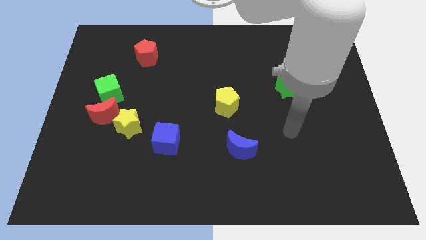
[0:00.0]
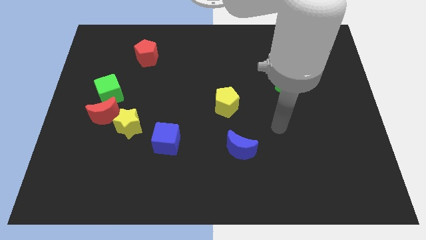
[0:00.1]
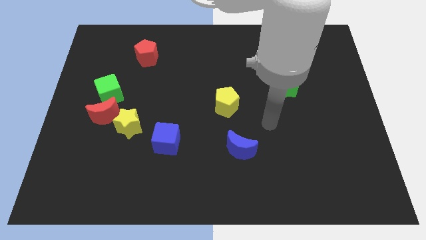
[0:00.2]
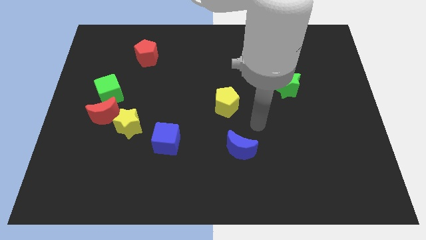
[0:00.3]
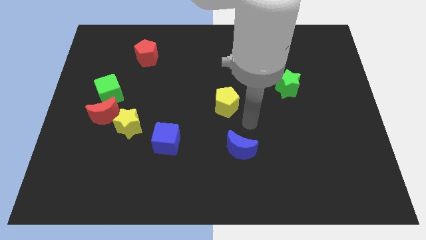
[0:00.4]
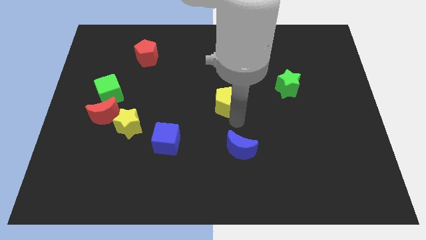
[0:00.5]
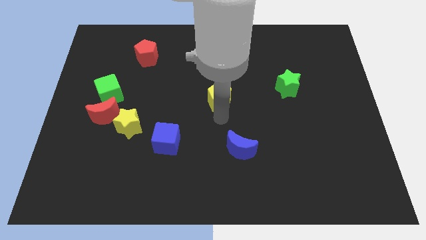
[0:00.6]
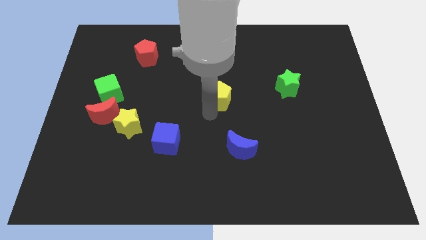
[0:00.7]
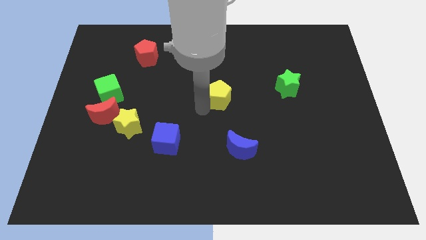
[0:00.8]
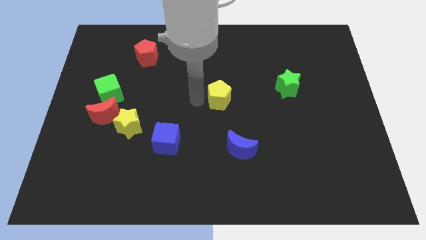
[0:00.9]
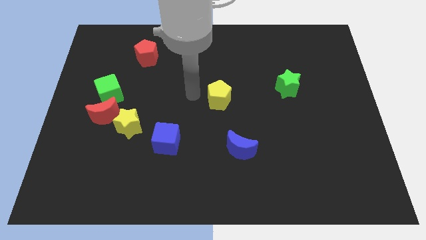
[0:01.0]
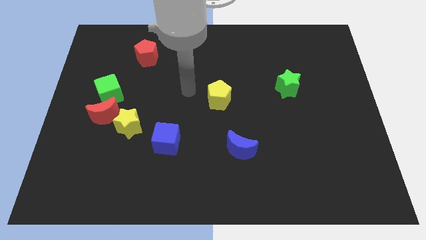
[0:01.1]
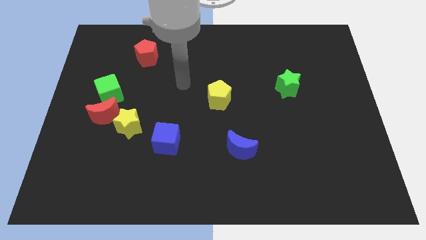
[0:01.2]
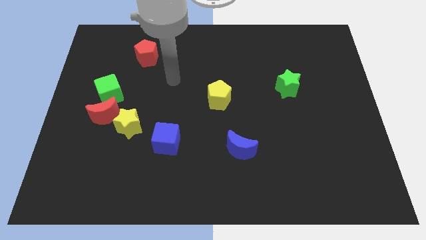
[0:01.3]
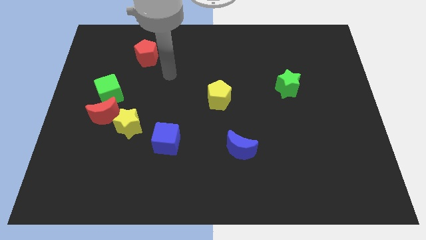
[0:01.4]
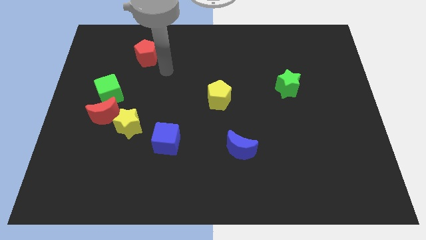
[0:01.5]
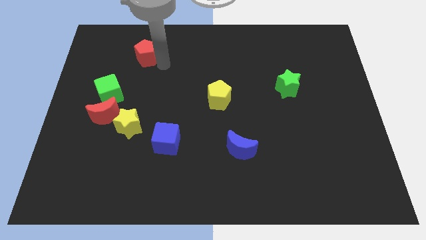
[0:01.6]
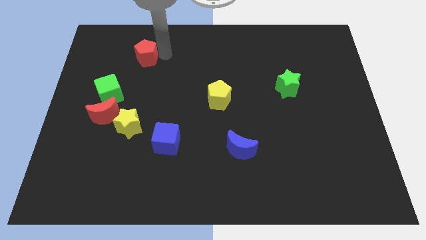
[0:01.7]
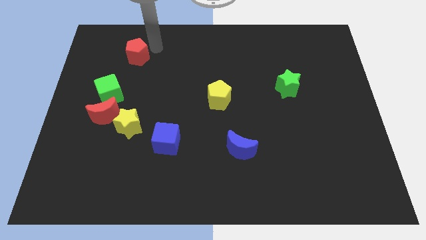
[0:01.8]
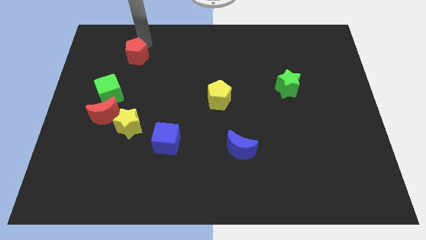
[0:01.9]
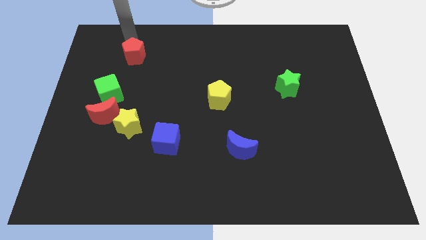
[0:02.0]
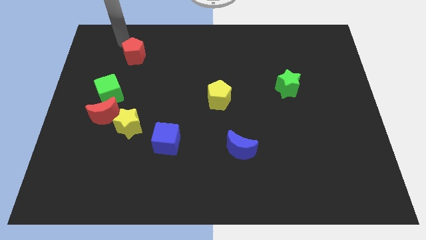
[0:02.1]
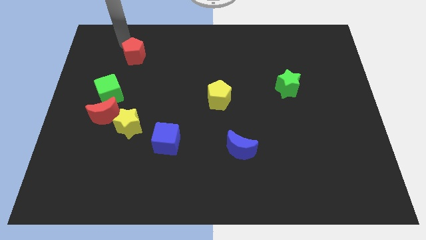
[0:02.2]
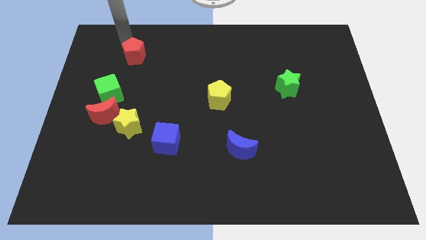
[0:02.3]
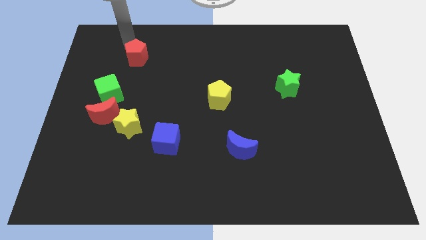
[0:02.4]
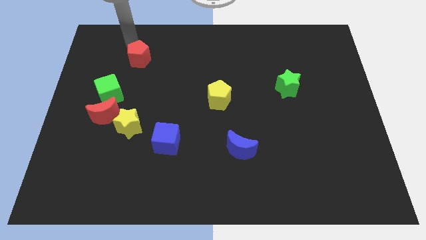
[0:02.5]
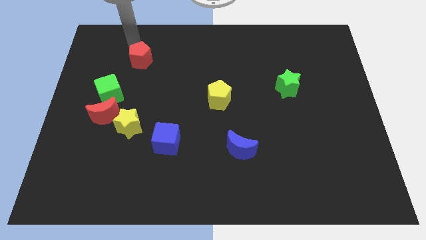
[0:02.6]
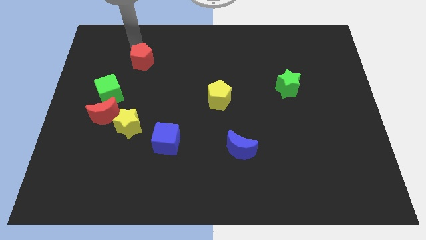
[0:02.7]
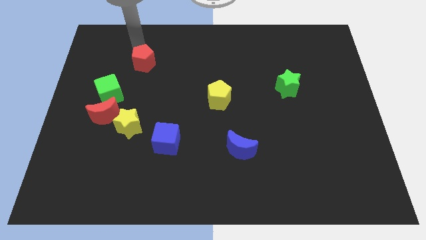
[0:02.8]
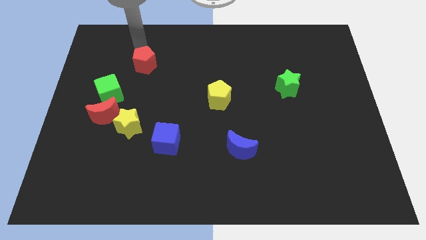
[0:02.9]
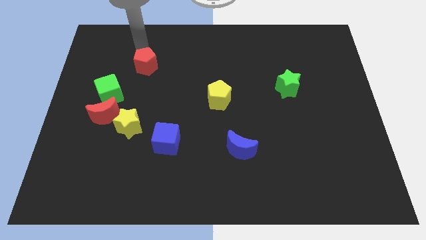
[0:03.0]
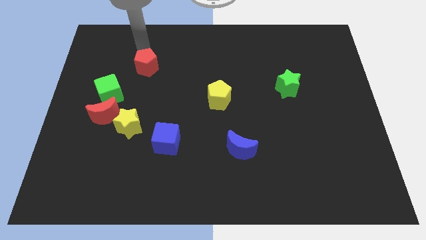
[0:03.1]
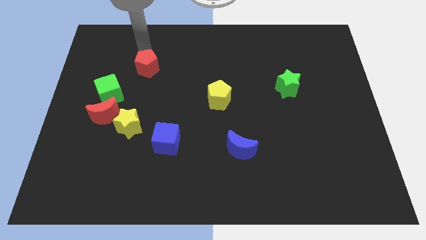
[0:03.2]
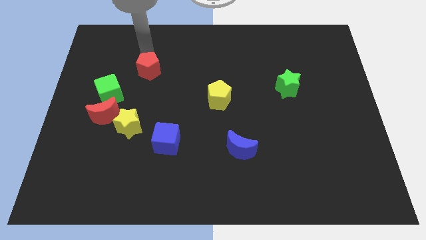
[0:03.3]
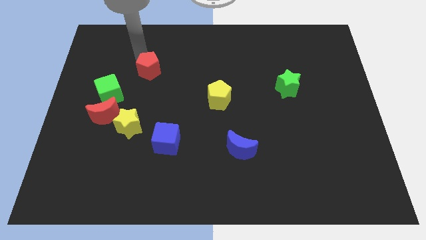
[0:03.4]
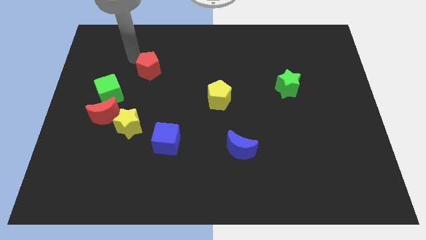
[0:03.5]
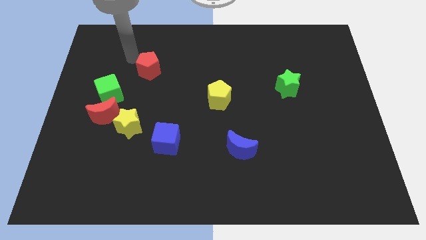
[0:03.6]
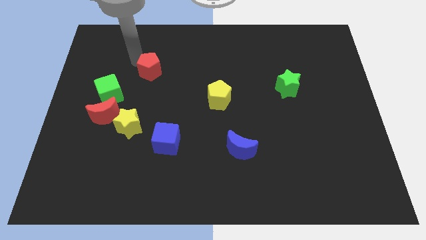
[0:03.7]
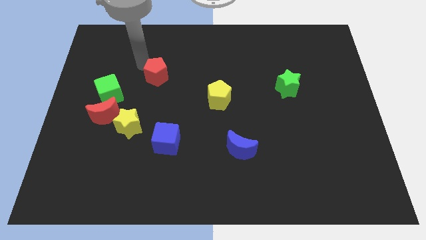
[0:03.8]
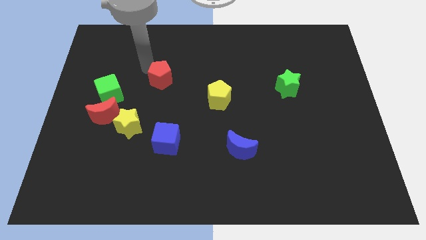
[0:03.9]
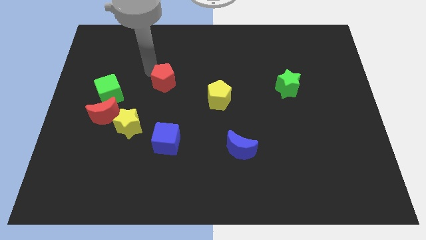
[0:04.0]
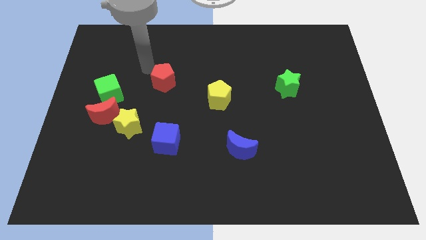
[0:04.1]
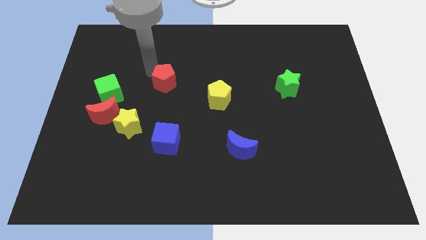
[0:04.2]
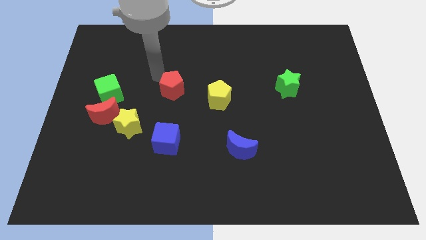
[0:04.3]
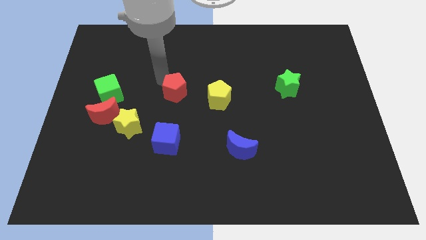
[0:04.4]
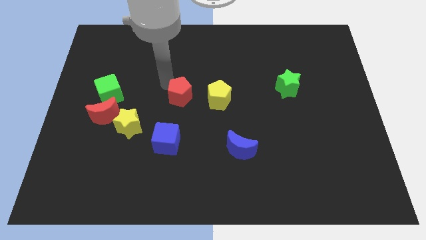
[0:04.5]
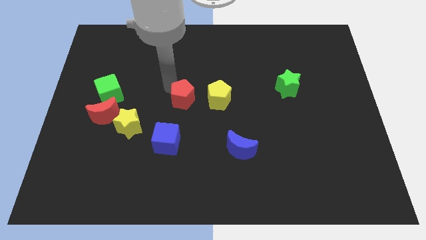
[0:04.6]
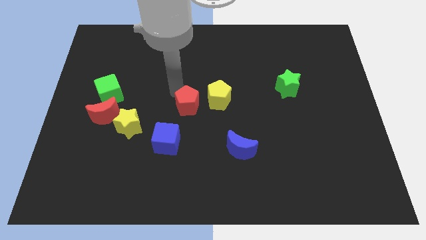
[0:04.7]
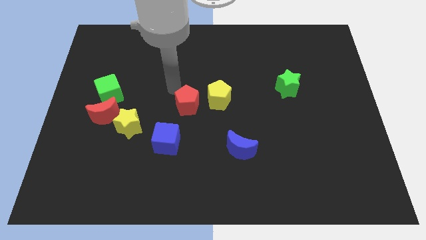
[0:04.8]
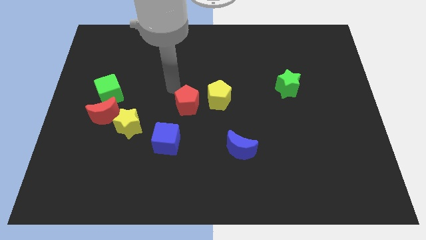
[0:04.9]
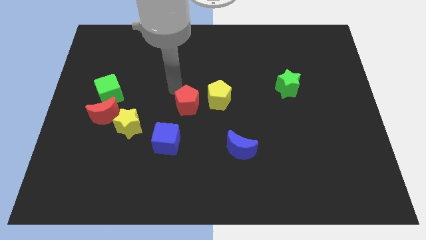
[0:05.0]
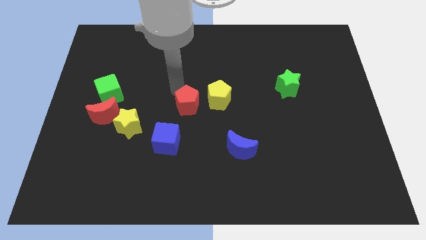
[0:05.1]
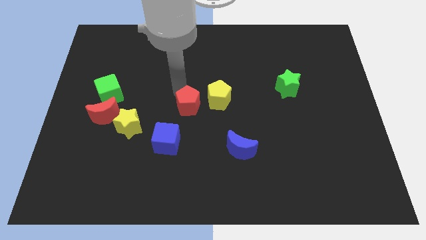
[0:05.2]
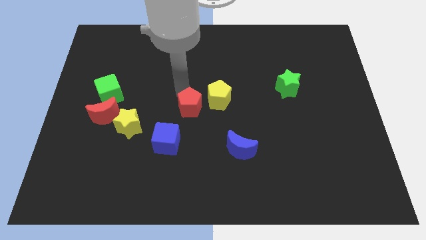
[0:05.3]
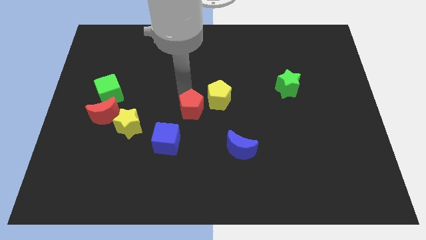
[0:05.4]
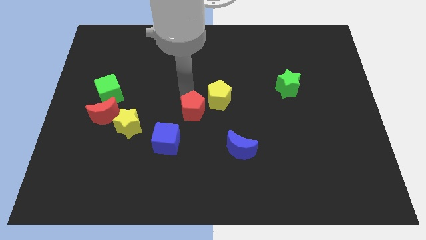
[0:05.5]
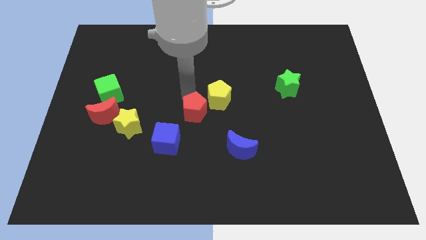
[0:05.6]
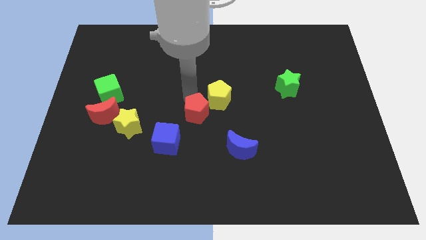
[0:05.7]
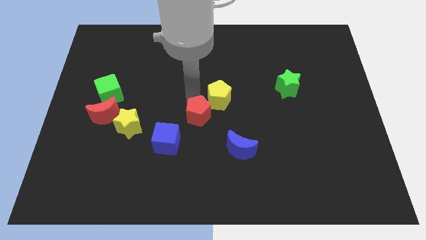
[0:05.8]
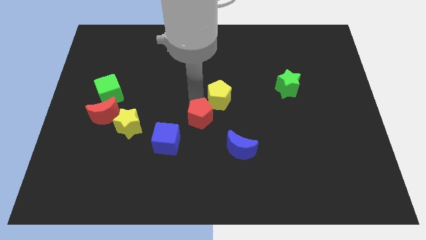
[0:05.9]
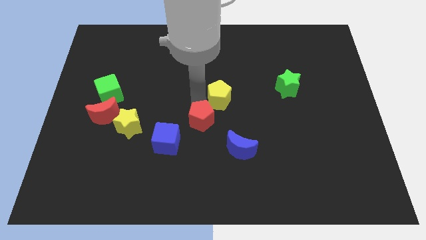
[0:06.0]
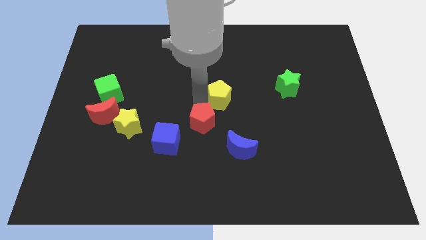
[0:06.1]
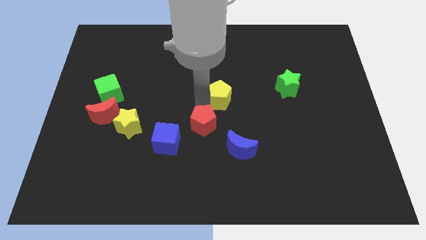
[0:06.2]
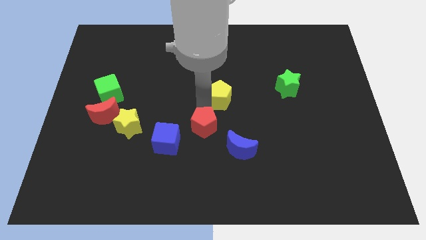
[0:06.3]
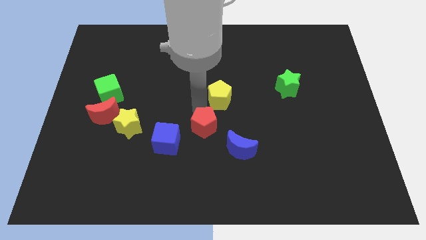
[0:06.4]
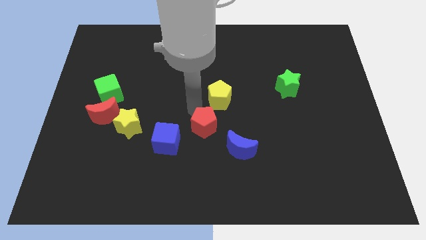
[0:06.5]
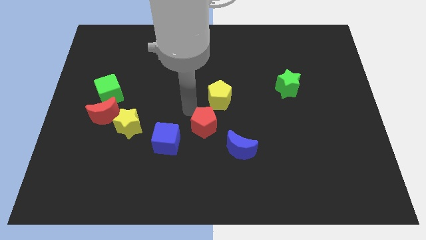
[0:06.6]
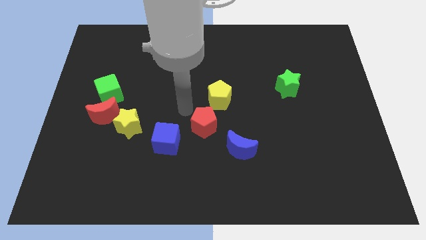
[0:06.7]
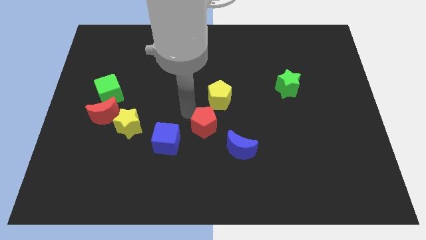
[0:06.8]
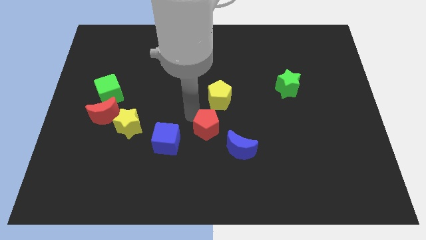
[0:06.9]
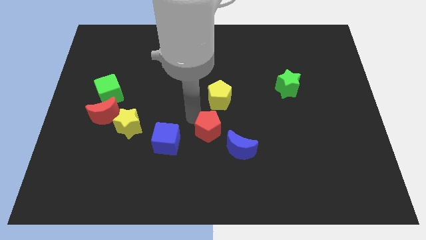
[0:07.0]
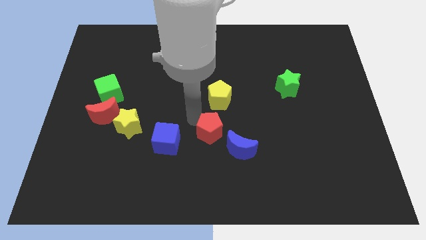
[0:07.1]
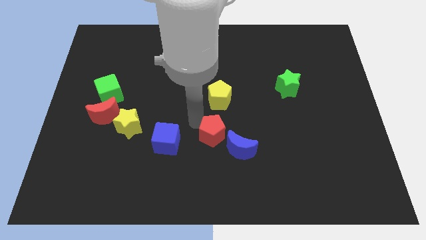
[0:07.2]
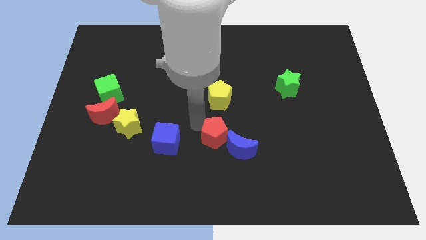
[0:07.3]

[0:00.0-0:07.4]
put the red pentagon to the blue moon
